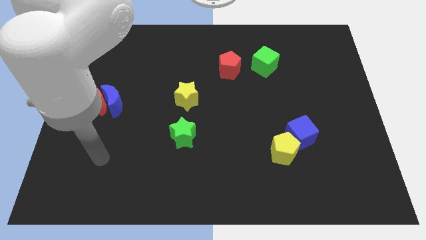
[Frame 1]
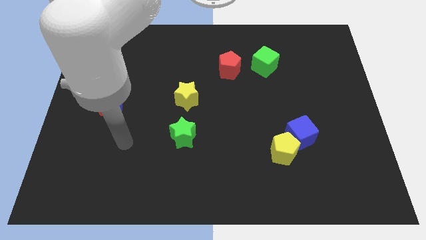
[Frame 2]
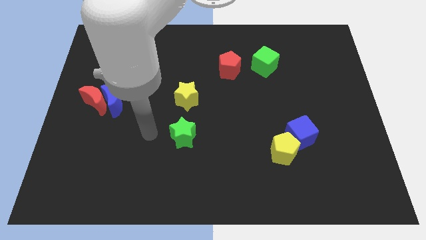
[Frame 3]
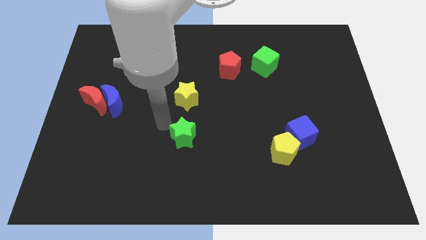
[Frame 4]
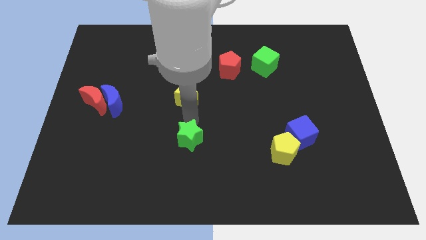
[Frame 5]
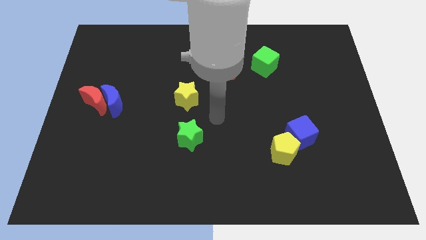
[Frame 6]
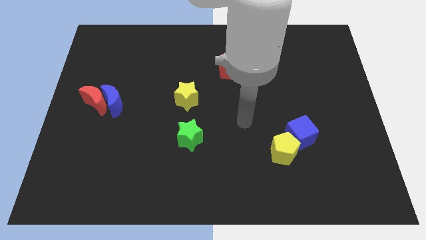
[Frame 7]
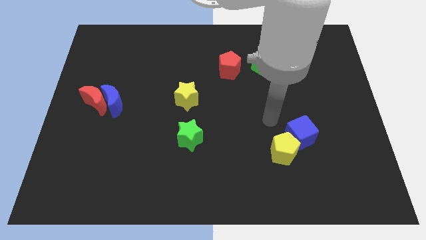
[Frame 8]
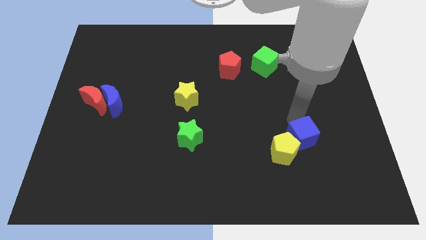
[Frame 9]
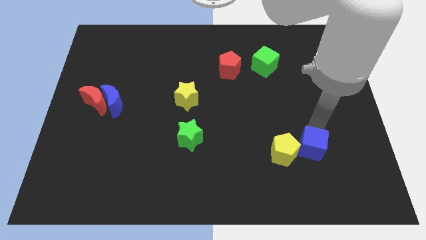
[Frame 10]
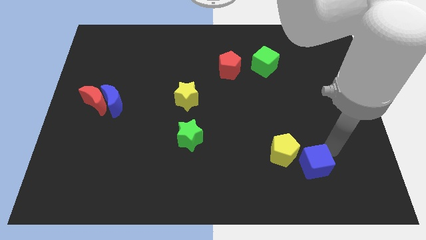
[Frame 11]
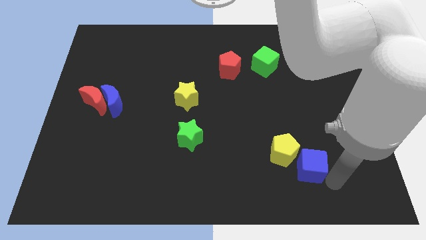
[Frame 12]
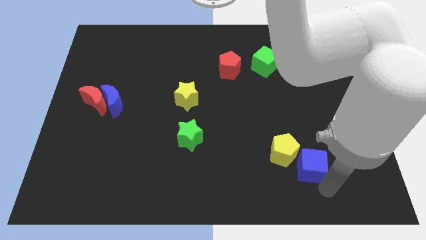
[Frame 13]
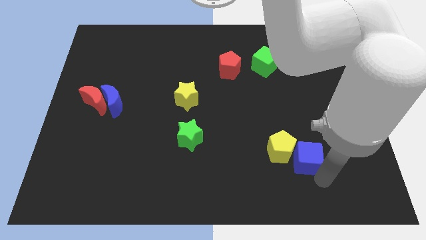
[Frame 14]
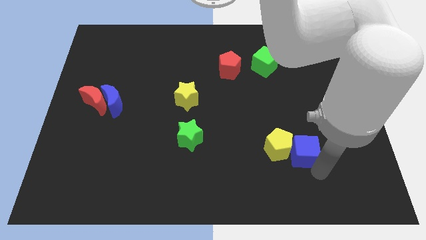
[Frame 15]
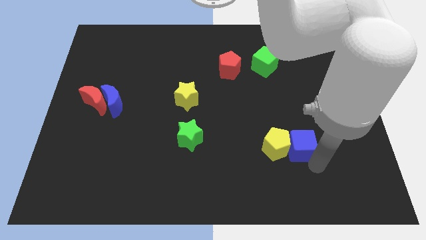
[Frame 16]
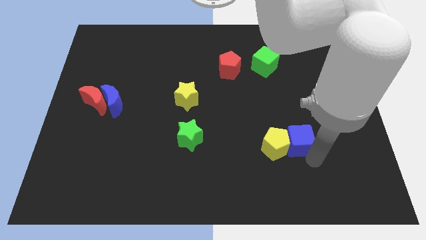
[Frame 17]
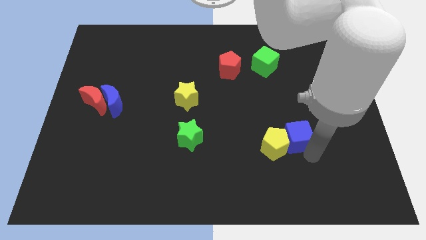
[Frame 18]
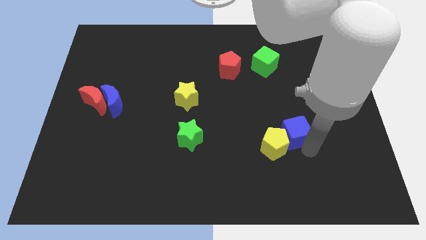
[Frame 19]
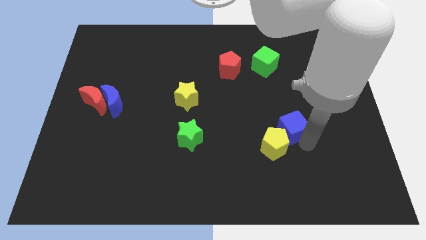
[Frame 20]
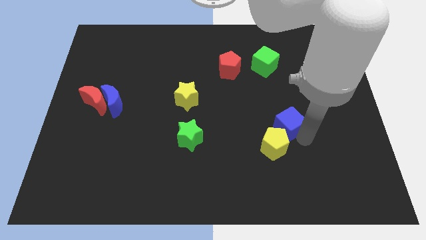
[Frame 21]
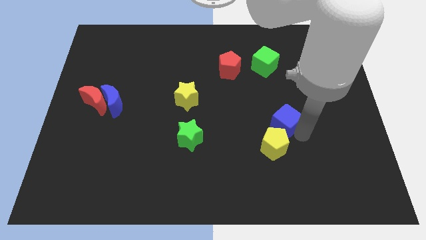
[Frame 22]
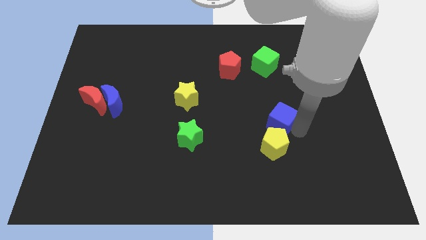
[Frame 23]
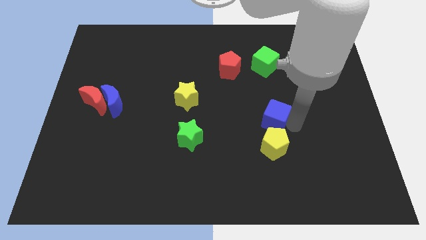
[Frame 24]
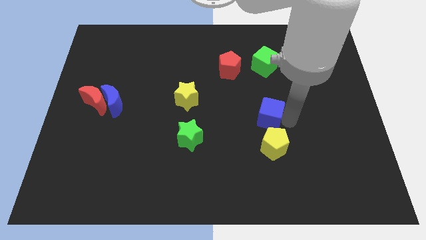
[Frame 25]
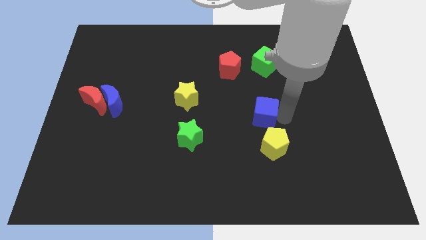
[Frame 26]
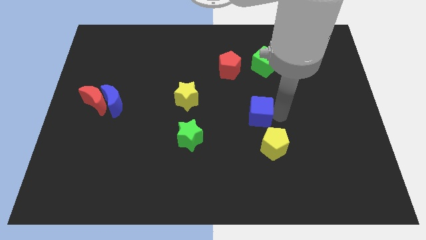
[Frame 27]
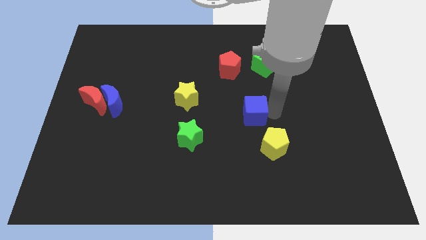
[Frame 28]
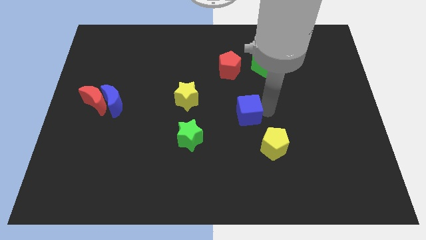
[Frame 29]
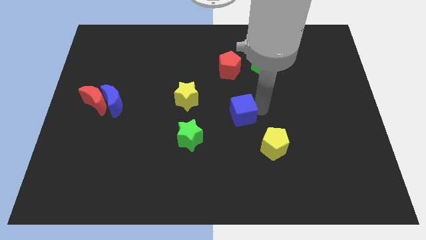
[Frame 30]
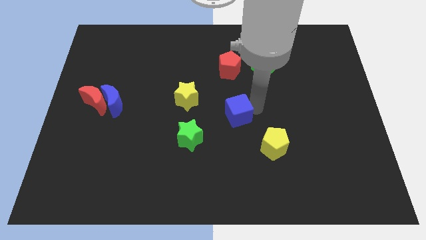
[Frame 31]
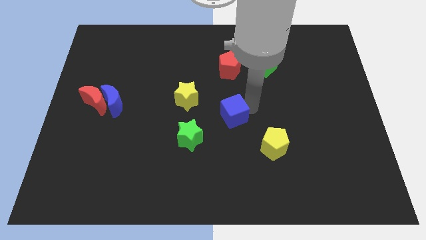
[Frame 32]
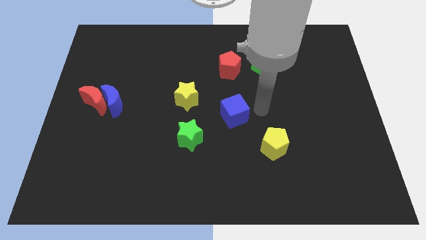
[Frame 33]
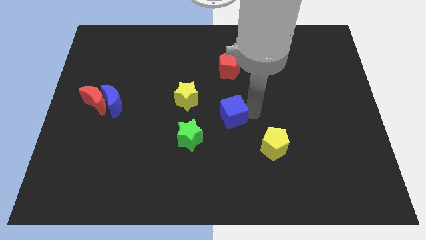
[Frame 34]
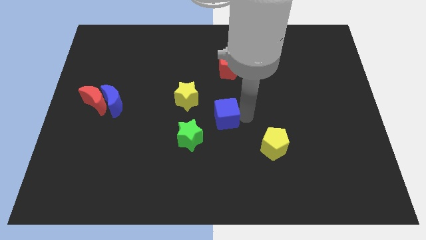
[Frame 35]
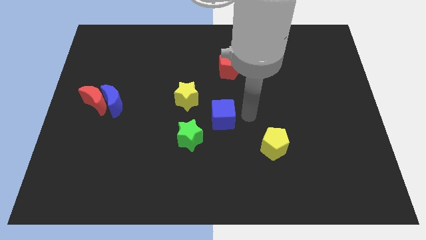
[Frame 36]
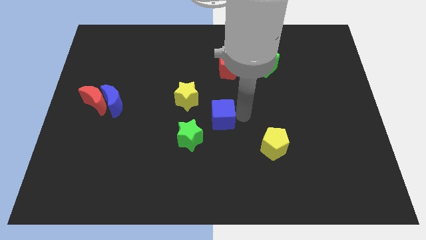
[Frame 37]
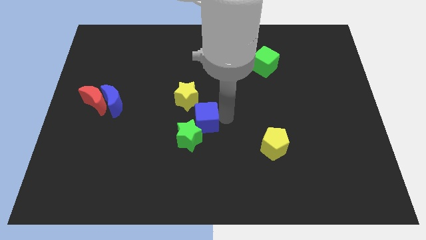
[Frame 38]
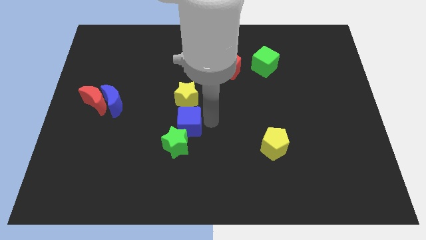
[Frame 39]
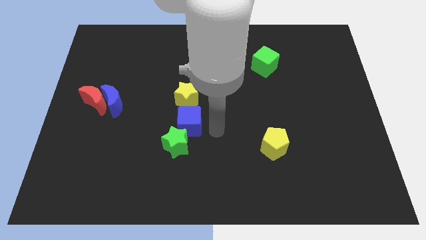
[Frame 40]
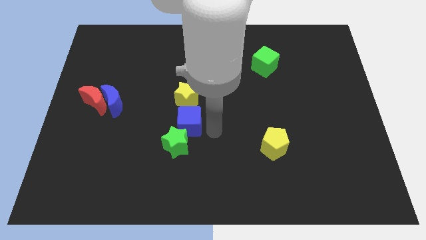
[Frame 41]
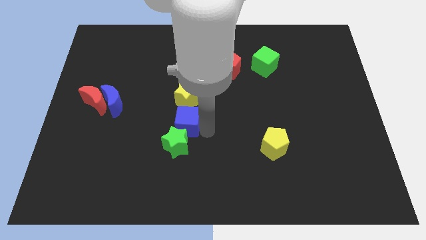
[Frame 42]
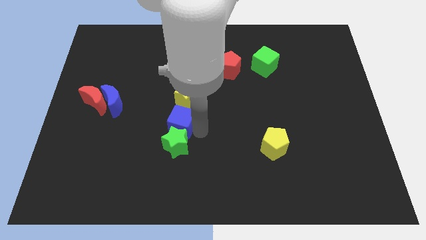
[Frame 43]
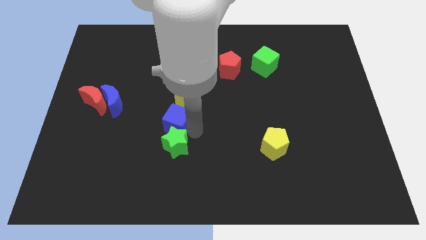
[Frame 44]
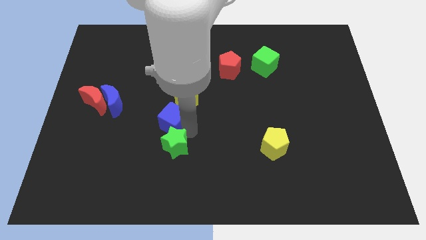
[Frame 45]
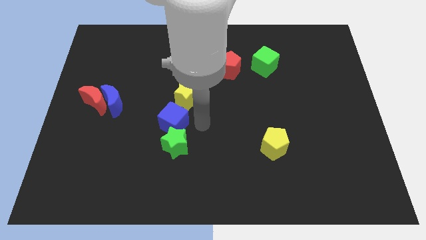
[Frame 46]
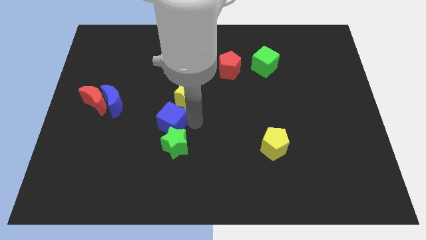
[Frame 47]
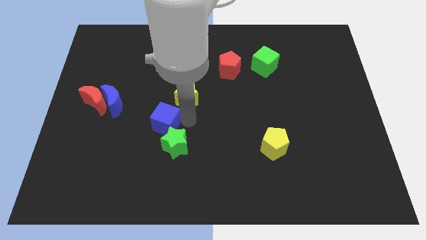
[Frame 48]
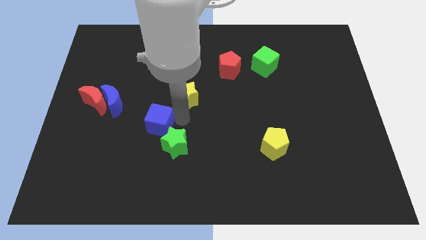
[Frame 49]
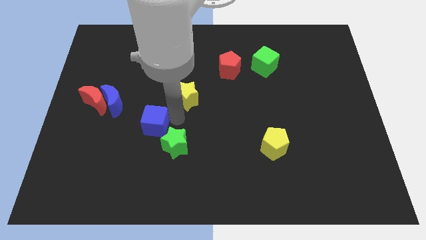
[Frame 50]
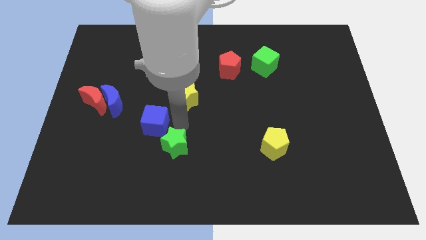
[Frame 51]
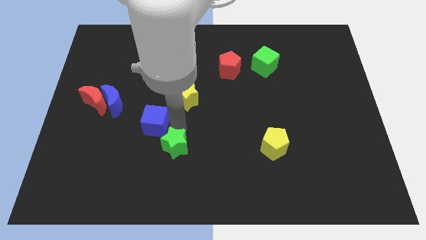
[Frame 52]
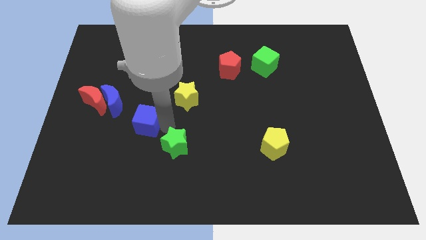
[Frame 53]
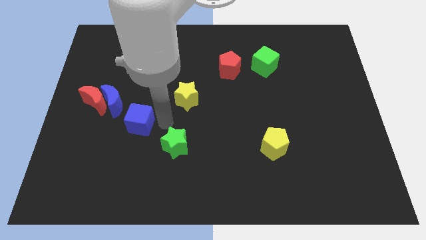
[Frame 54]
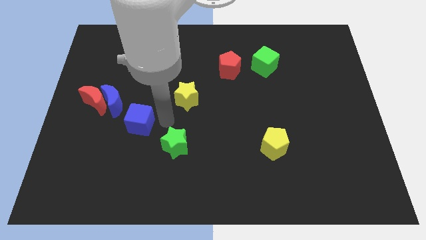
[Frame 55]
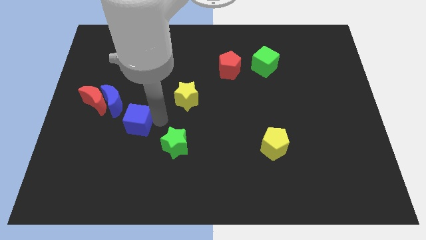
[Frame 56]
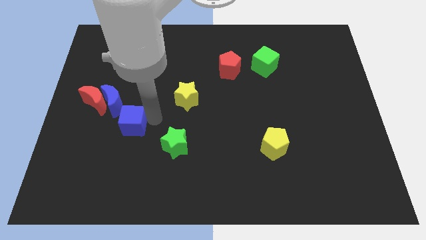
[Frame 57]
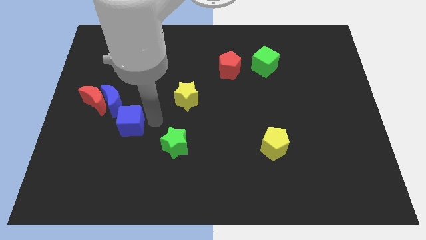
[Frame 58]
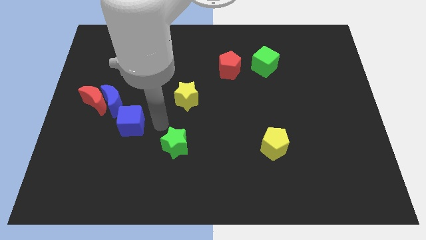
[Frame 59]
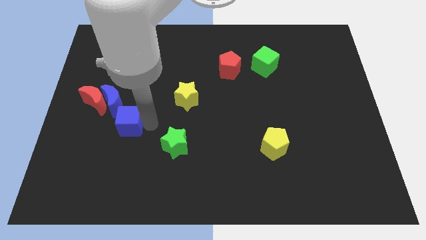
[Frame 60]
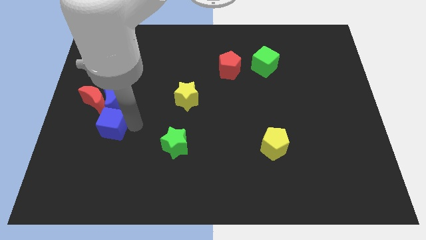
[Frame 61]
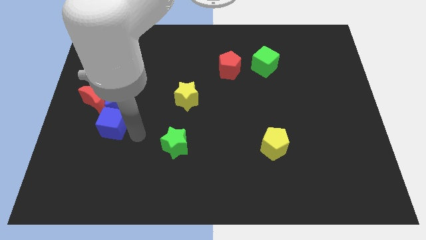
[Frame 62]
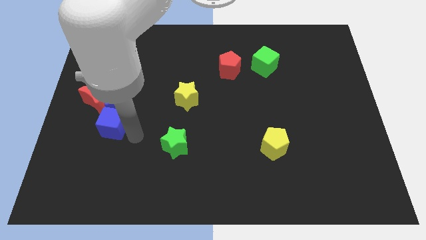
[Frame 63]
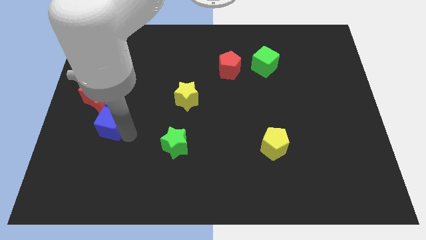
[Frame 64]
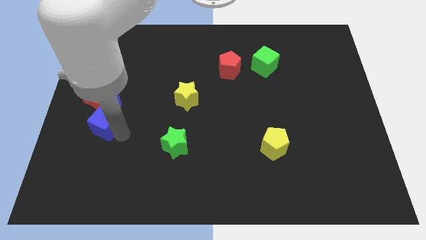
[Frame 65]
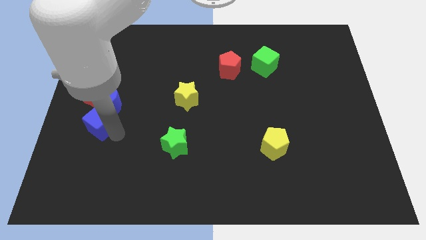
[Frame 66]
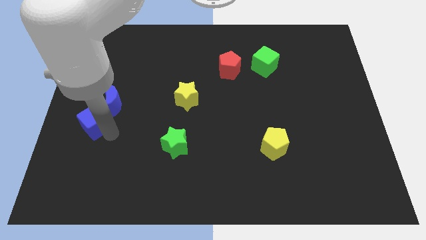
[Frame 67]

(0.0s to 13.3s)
push the blue cube to the center left
